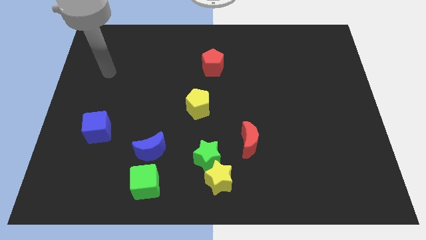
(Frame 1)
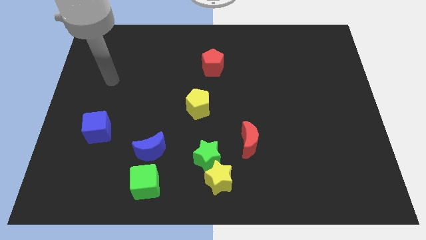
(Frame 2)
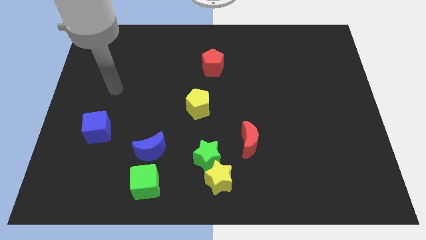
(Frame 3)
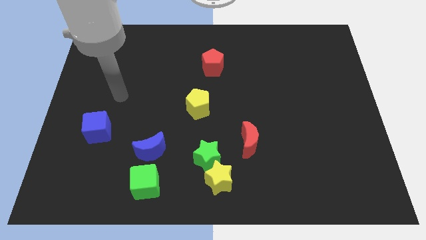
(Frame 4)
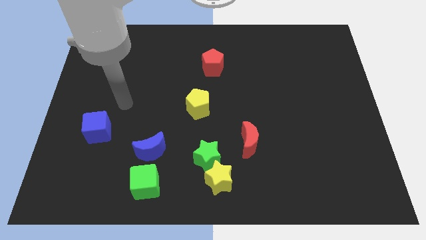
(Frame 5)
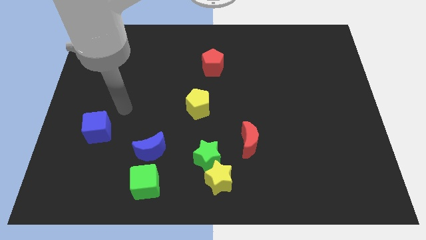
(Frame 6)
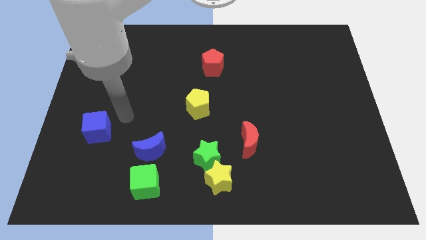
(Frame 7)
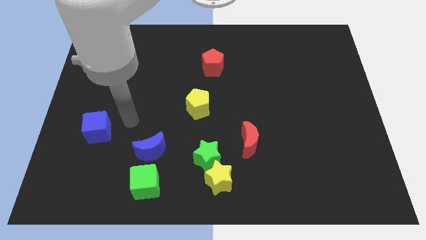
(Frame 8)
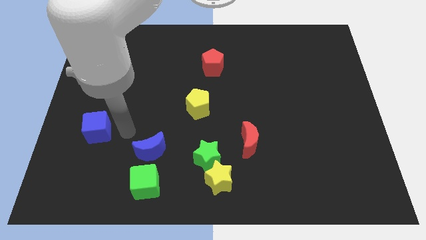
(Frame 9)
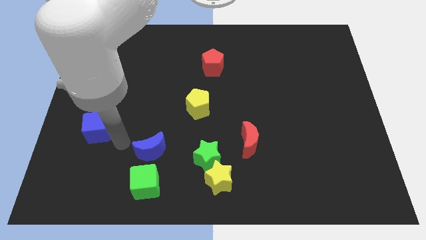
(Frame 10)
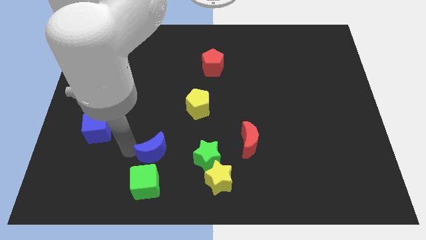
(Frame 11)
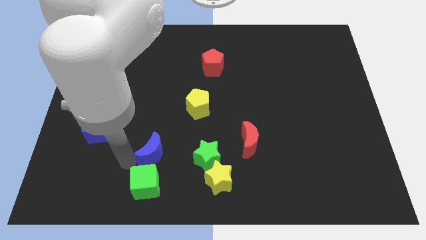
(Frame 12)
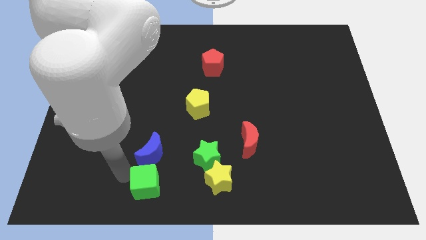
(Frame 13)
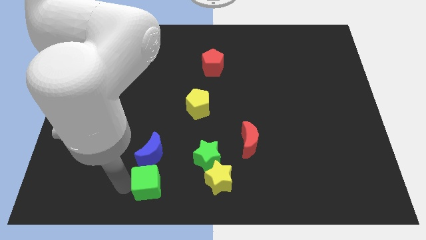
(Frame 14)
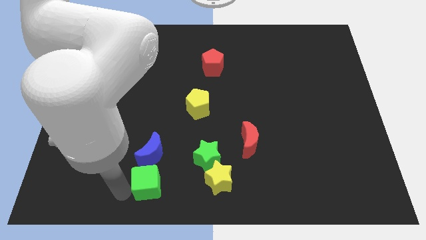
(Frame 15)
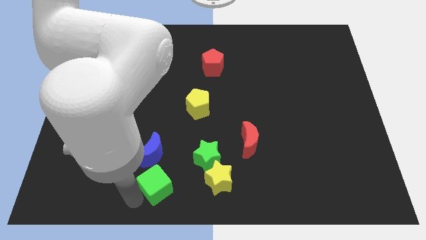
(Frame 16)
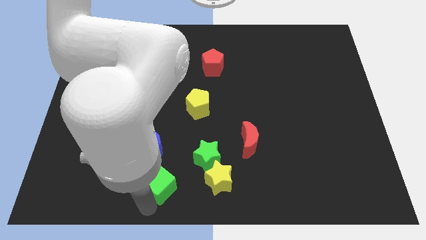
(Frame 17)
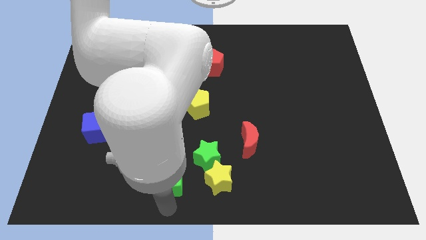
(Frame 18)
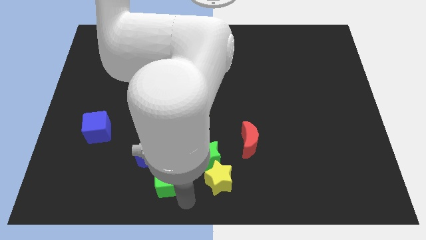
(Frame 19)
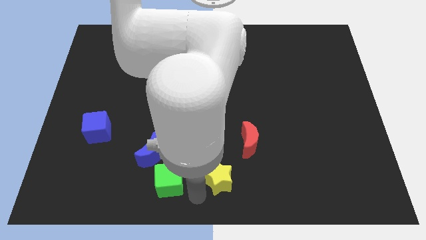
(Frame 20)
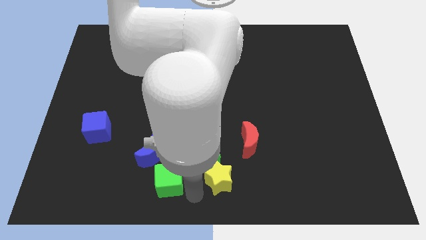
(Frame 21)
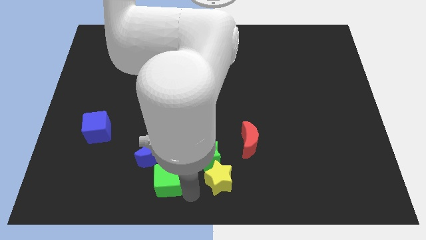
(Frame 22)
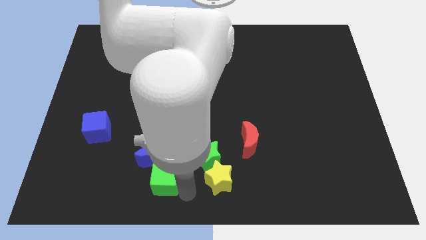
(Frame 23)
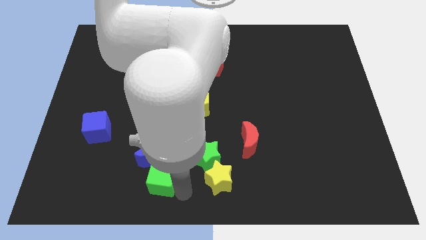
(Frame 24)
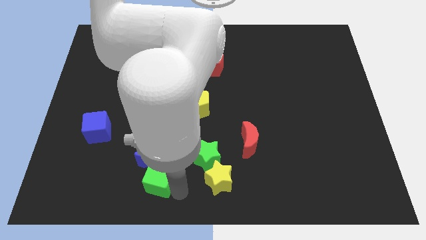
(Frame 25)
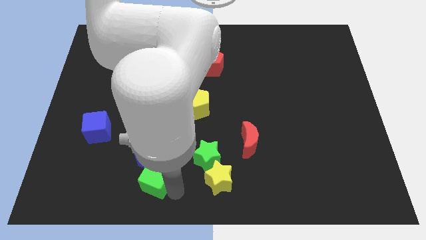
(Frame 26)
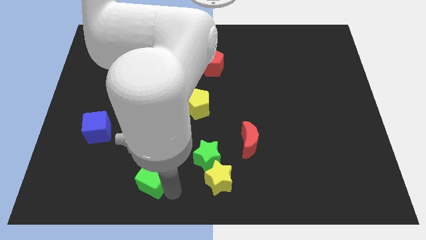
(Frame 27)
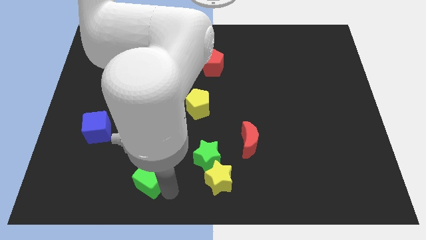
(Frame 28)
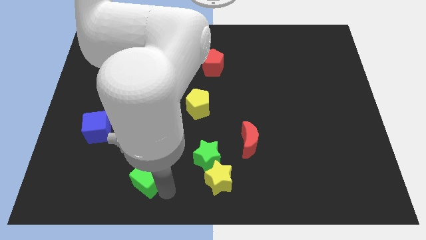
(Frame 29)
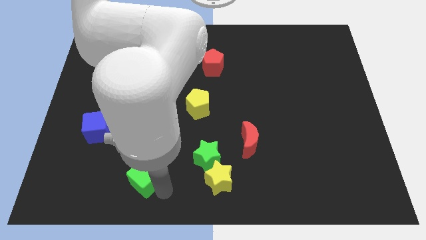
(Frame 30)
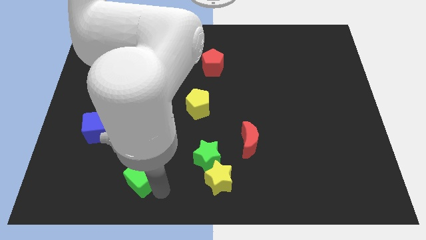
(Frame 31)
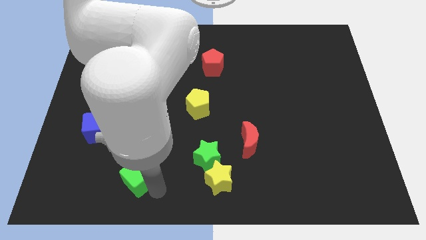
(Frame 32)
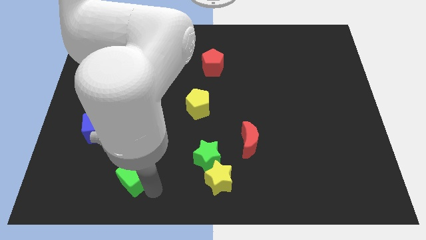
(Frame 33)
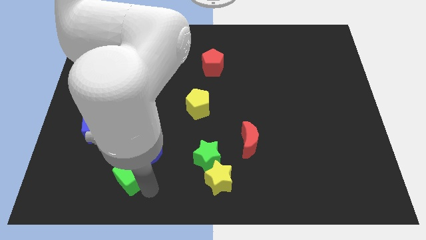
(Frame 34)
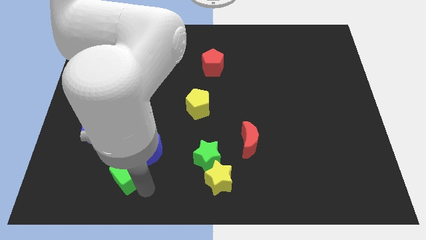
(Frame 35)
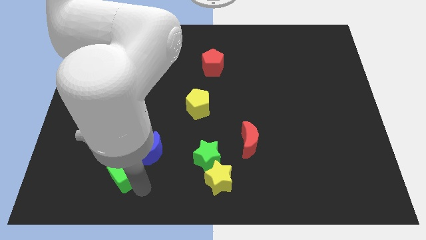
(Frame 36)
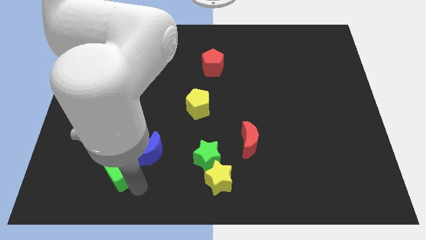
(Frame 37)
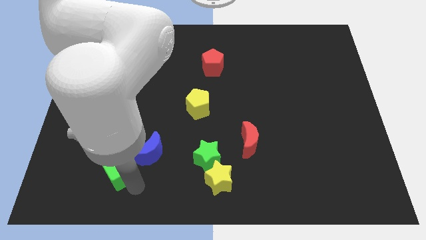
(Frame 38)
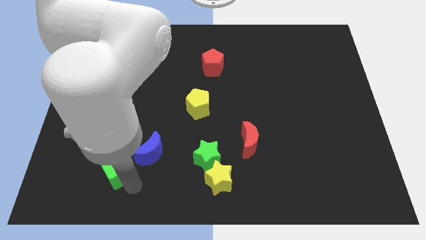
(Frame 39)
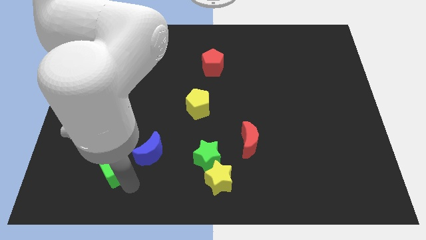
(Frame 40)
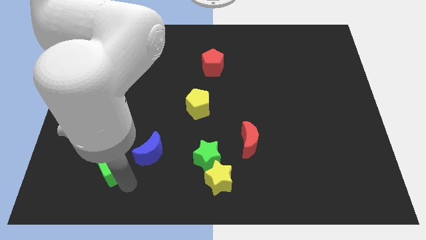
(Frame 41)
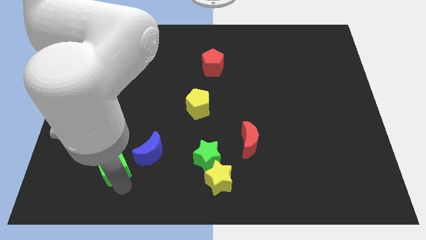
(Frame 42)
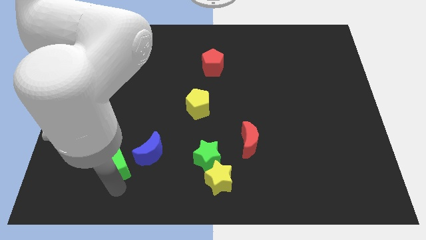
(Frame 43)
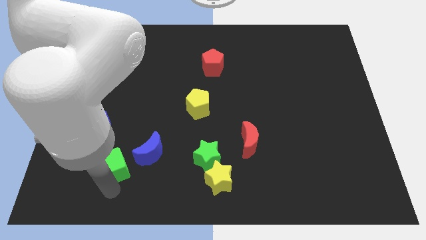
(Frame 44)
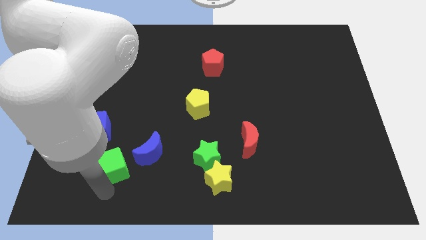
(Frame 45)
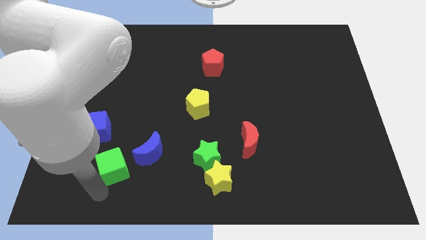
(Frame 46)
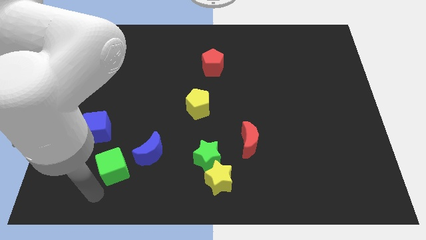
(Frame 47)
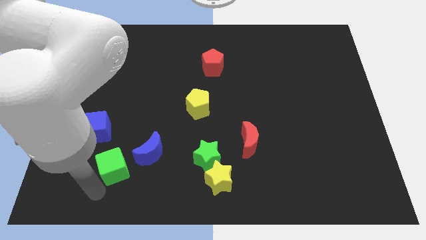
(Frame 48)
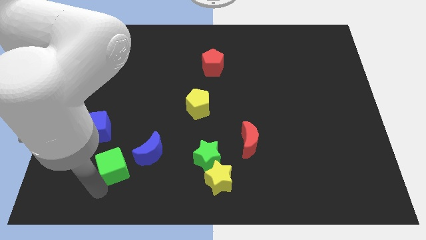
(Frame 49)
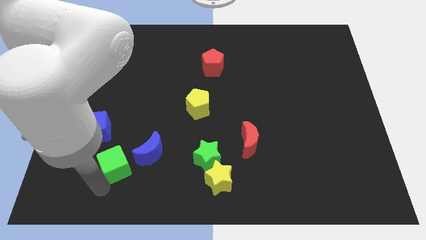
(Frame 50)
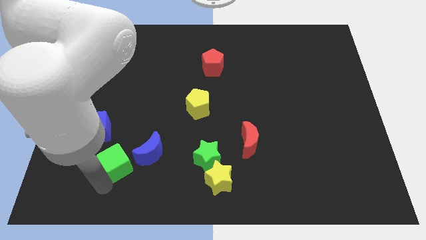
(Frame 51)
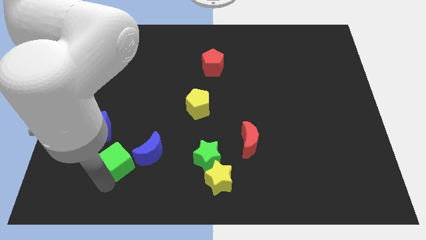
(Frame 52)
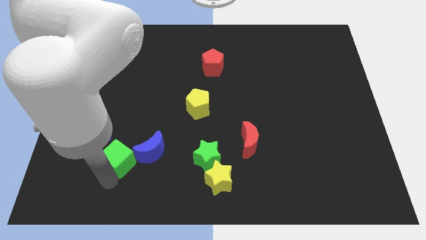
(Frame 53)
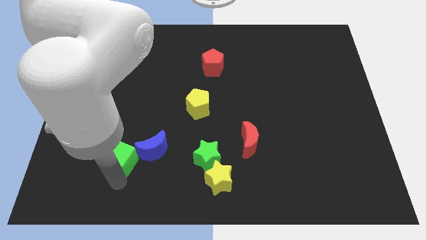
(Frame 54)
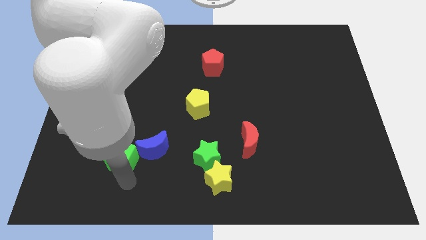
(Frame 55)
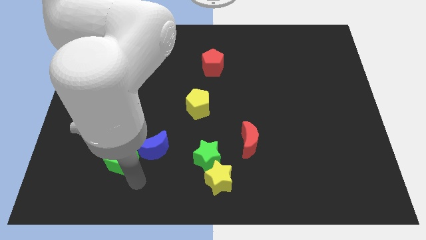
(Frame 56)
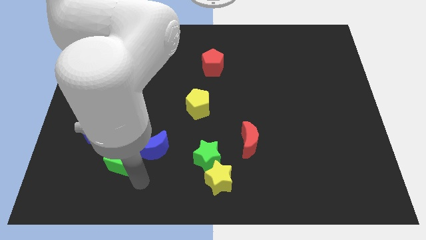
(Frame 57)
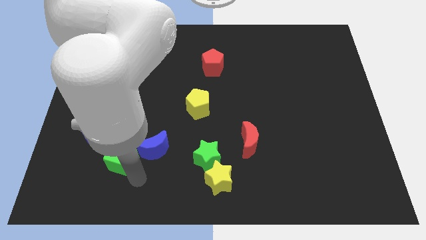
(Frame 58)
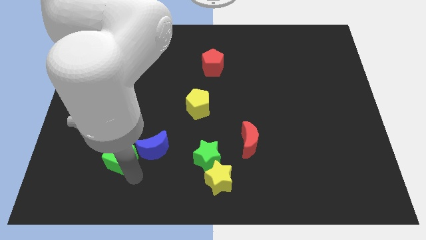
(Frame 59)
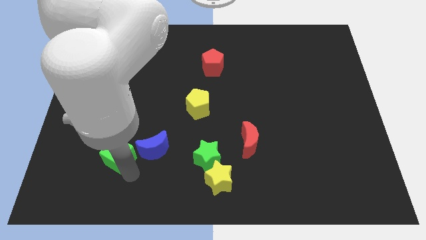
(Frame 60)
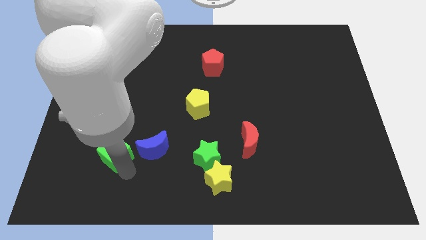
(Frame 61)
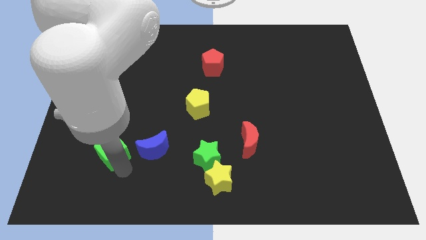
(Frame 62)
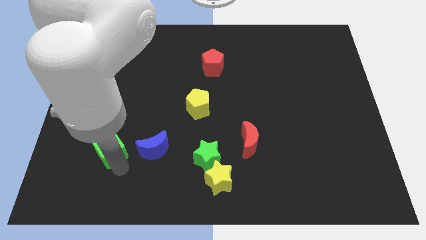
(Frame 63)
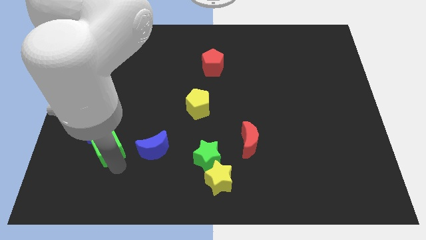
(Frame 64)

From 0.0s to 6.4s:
put the green cube next to the blue cube
